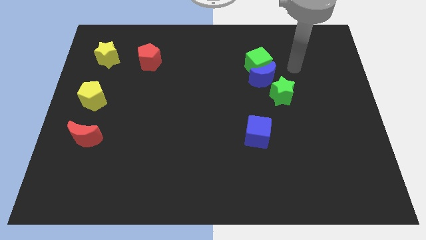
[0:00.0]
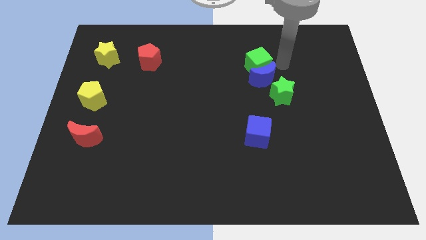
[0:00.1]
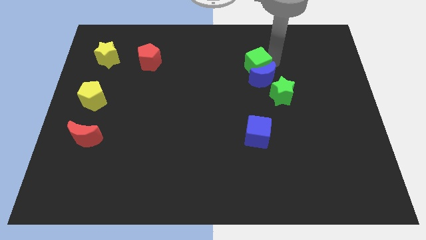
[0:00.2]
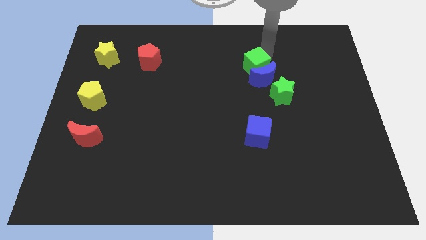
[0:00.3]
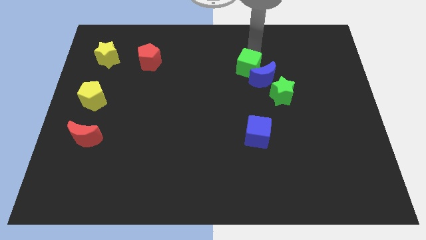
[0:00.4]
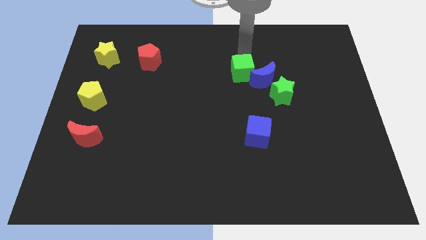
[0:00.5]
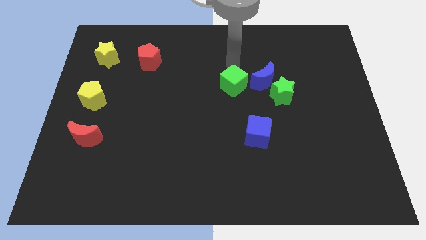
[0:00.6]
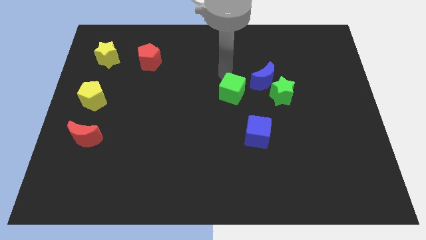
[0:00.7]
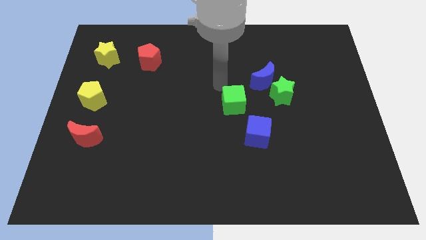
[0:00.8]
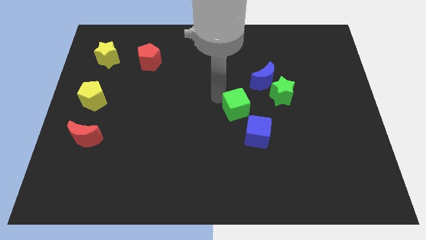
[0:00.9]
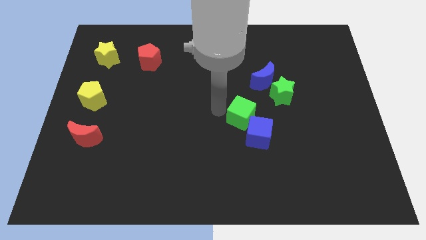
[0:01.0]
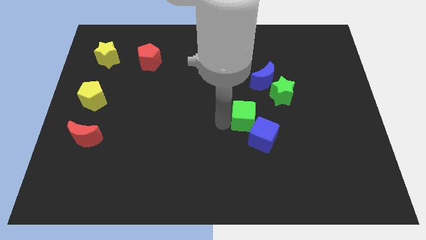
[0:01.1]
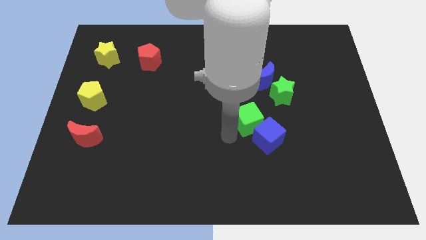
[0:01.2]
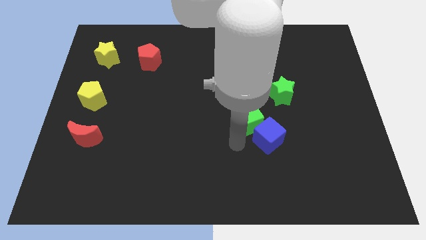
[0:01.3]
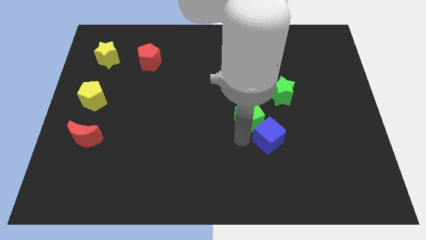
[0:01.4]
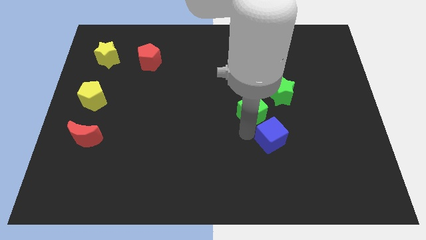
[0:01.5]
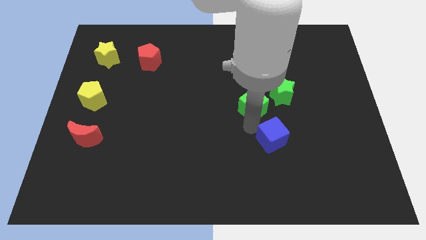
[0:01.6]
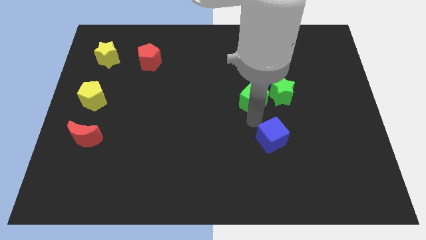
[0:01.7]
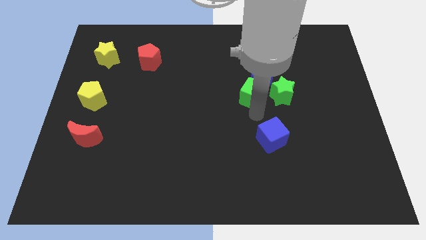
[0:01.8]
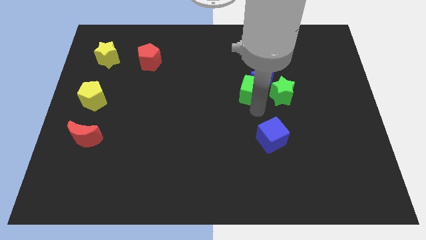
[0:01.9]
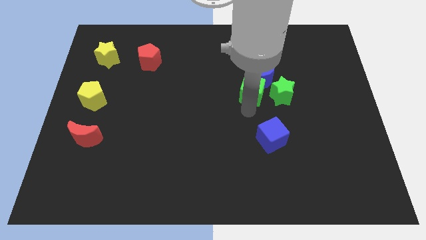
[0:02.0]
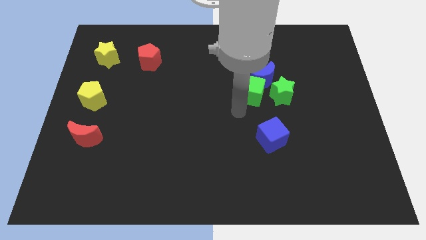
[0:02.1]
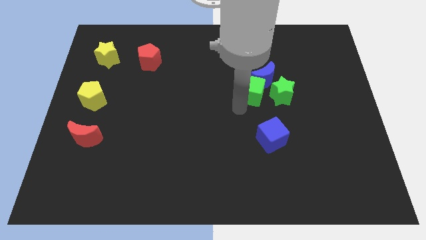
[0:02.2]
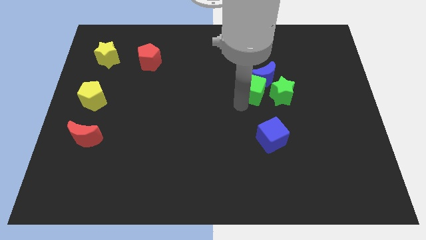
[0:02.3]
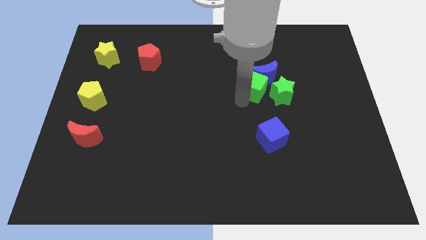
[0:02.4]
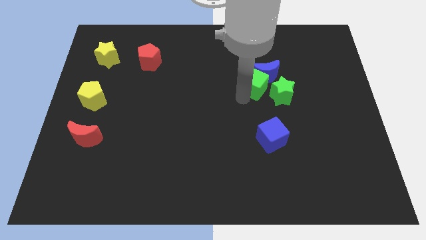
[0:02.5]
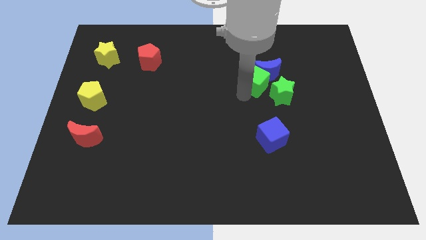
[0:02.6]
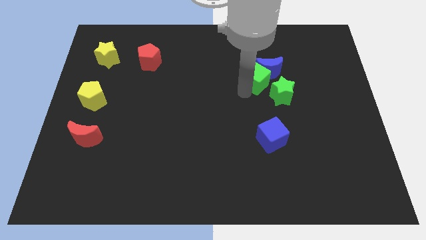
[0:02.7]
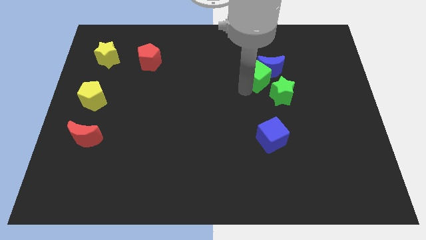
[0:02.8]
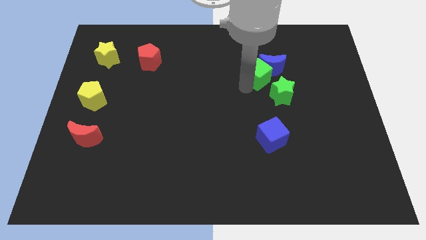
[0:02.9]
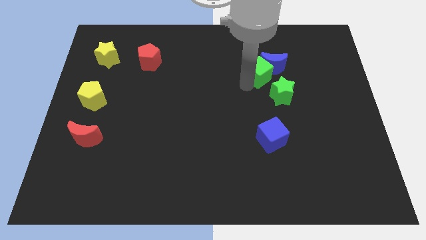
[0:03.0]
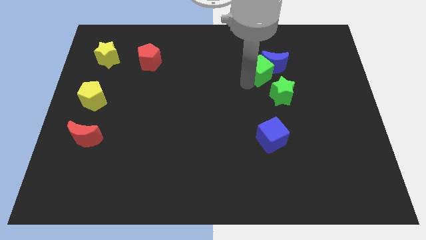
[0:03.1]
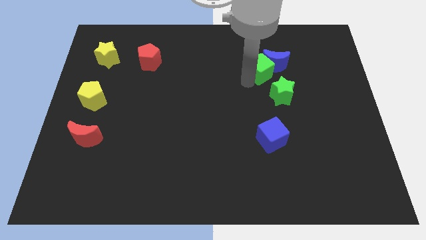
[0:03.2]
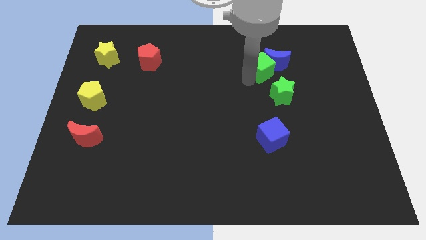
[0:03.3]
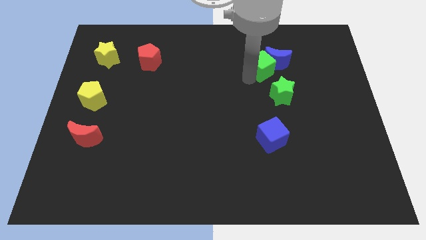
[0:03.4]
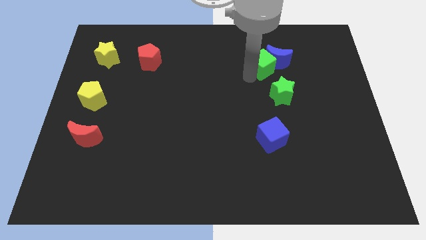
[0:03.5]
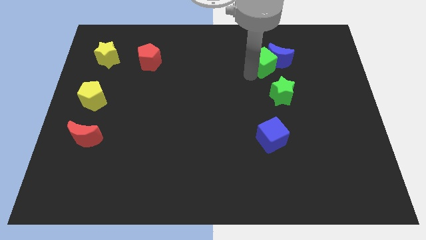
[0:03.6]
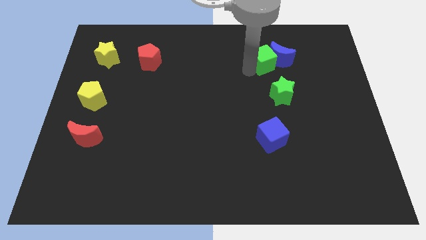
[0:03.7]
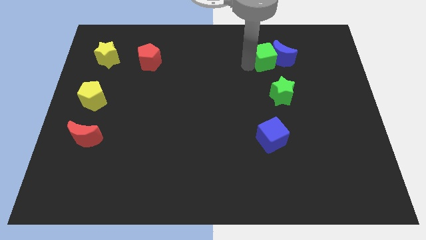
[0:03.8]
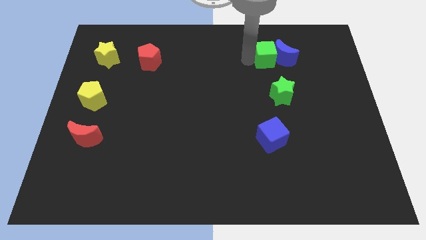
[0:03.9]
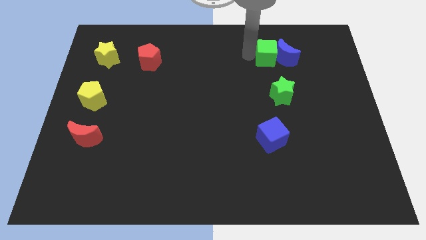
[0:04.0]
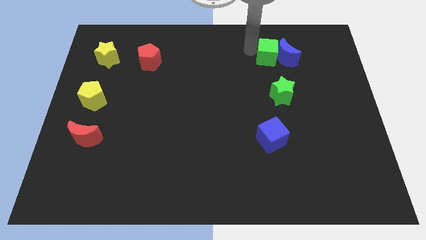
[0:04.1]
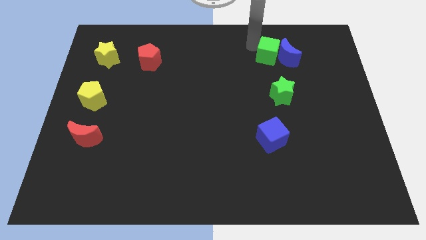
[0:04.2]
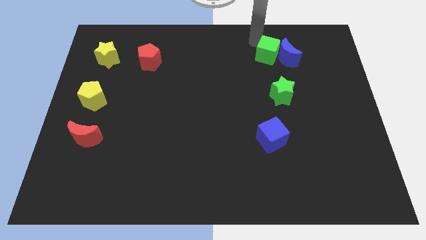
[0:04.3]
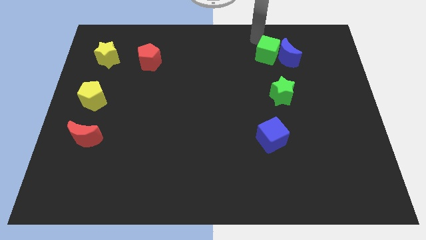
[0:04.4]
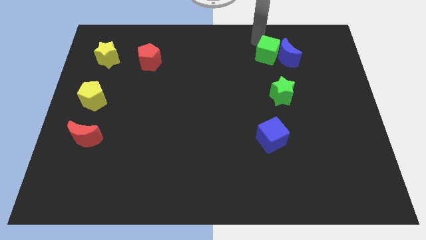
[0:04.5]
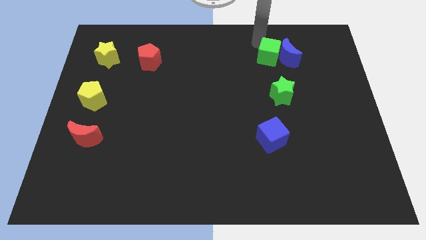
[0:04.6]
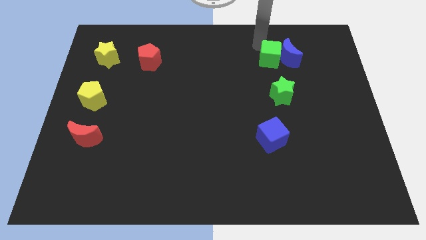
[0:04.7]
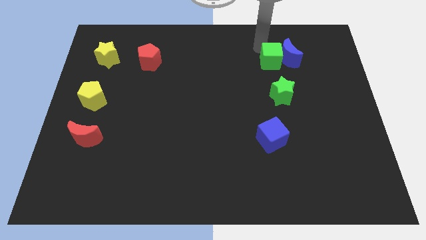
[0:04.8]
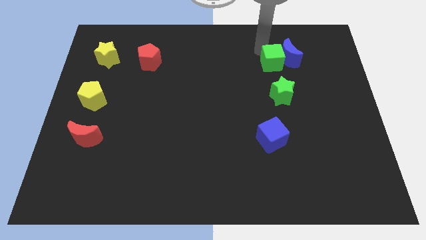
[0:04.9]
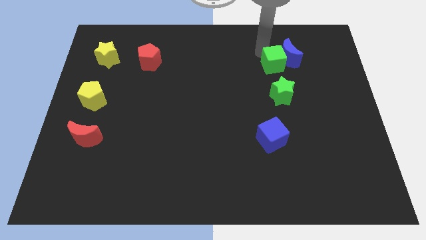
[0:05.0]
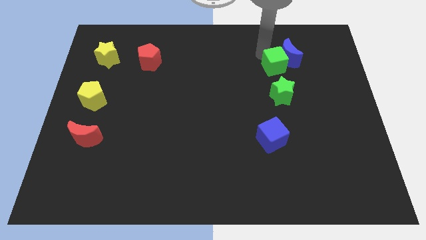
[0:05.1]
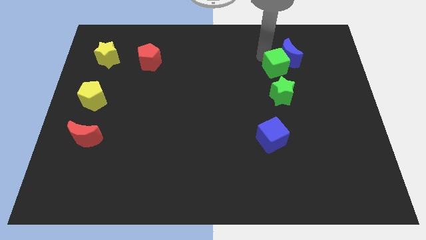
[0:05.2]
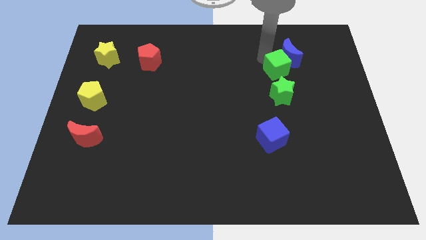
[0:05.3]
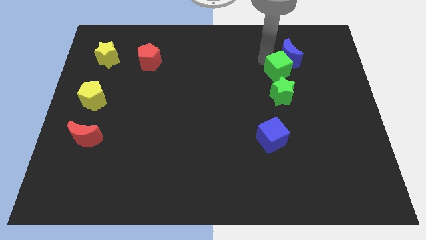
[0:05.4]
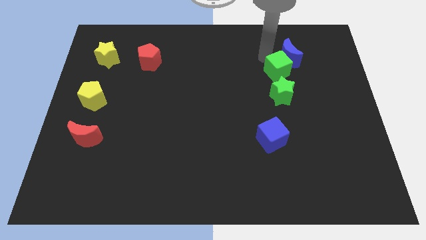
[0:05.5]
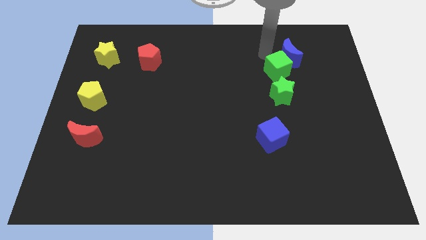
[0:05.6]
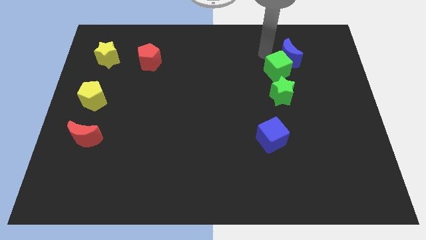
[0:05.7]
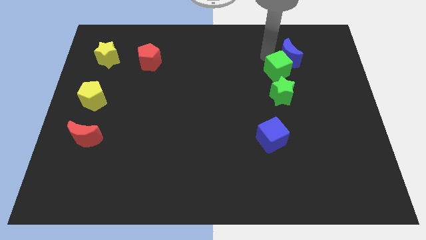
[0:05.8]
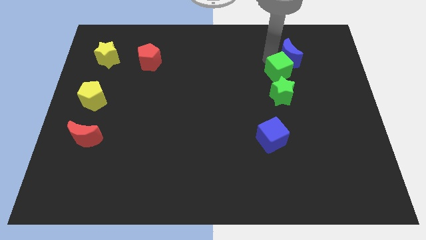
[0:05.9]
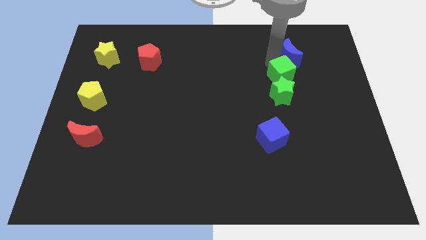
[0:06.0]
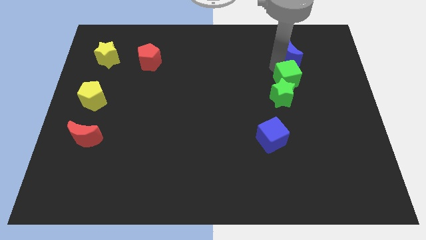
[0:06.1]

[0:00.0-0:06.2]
put the green cube towards the green star

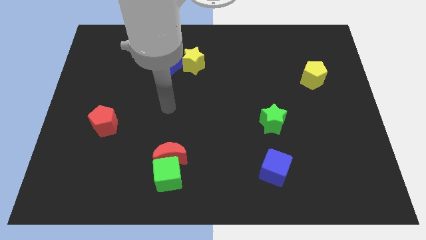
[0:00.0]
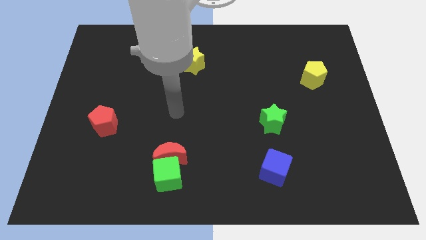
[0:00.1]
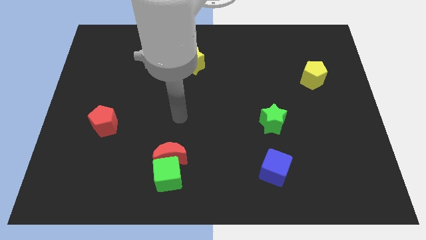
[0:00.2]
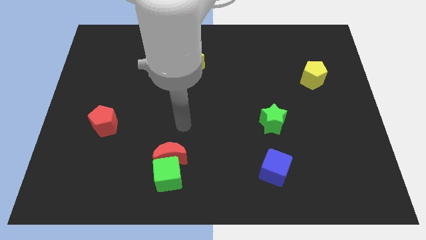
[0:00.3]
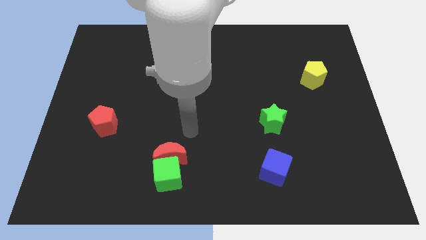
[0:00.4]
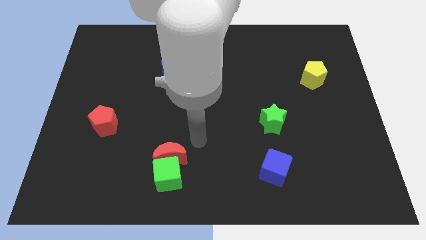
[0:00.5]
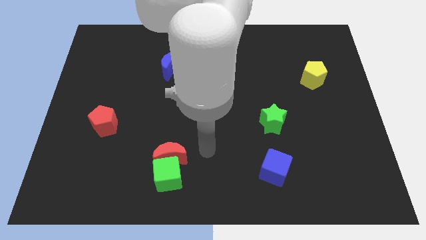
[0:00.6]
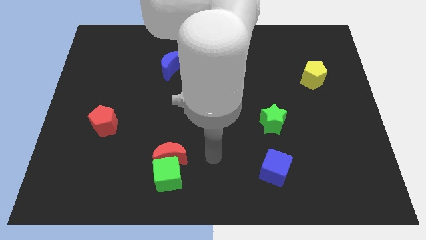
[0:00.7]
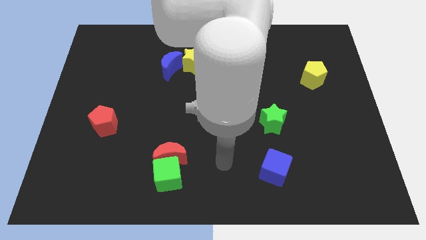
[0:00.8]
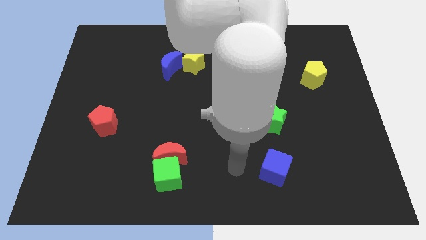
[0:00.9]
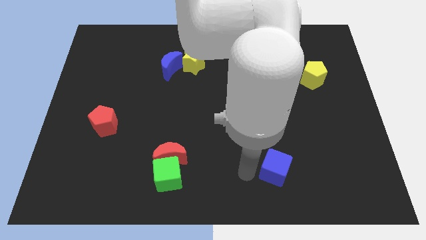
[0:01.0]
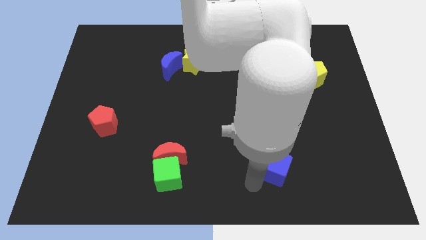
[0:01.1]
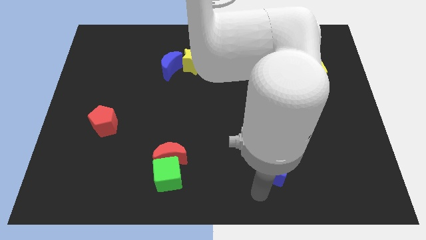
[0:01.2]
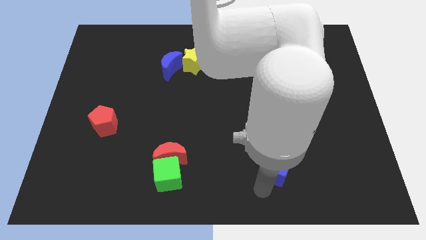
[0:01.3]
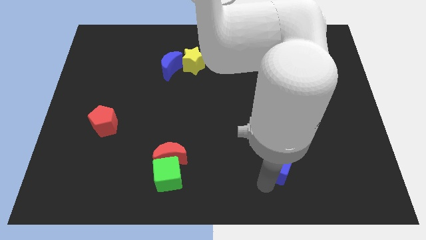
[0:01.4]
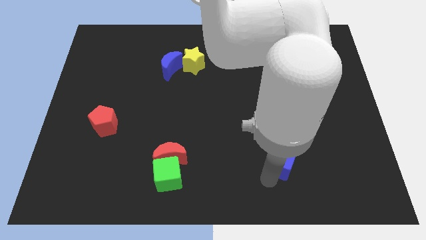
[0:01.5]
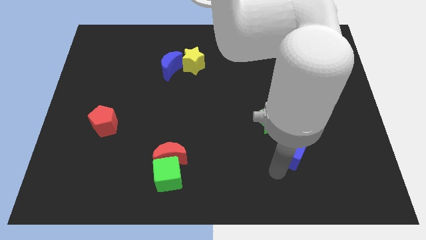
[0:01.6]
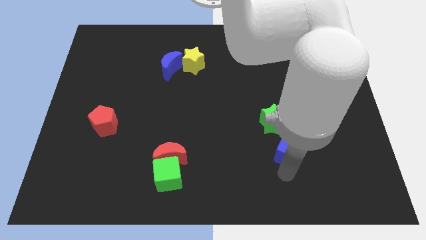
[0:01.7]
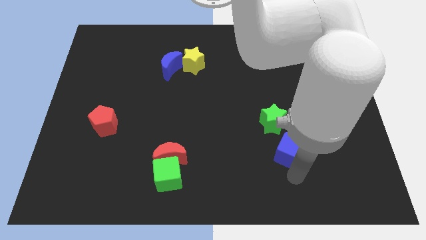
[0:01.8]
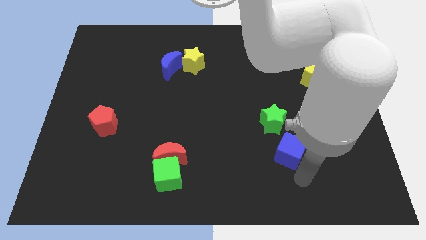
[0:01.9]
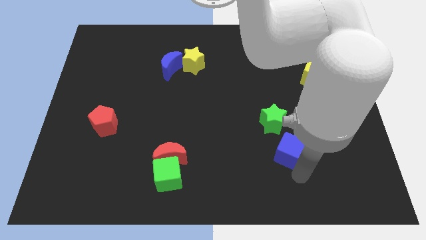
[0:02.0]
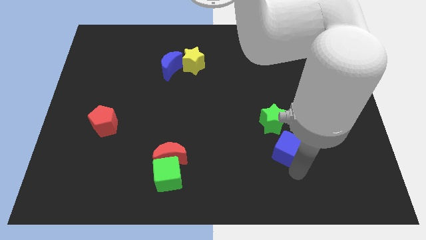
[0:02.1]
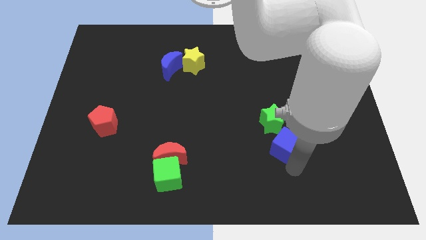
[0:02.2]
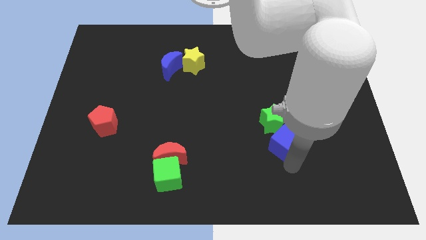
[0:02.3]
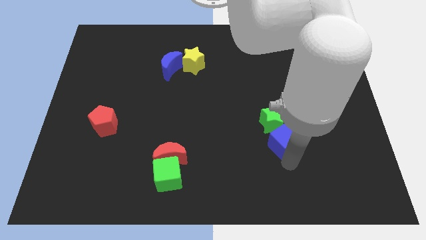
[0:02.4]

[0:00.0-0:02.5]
slide the blue cube close to the green star
